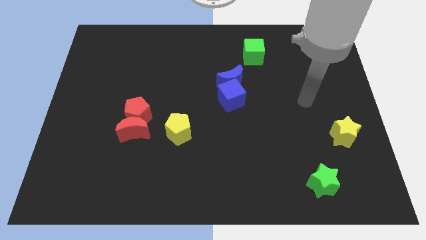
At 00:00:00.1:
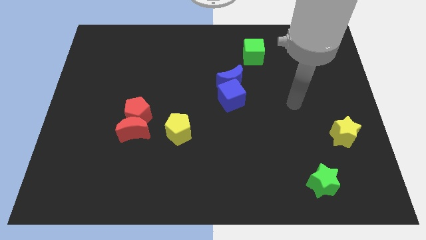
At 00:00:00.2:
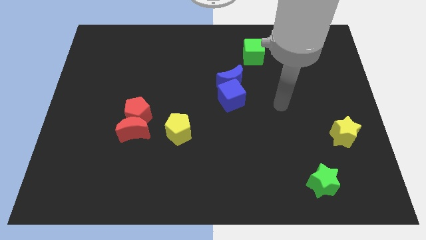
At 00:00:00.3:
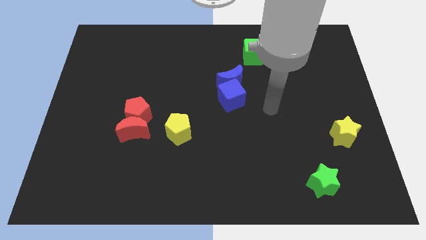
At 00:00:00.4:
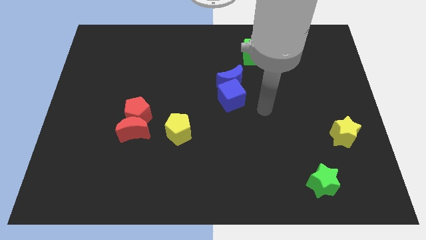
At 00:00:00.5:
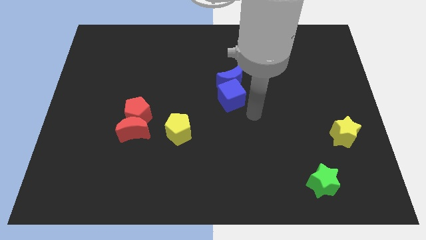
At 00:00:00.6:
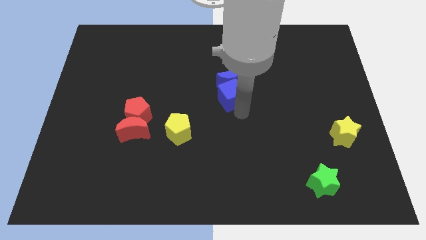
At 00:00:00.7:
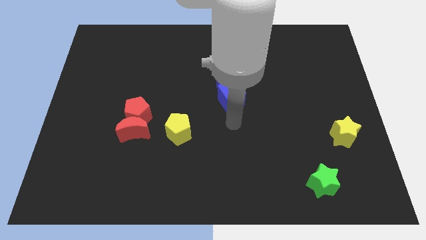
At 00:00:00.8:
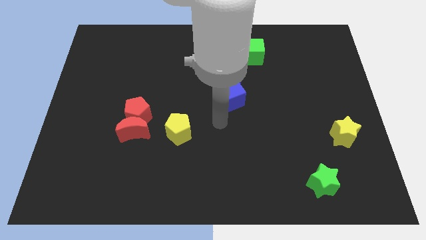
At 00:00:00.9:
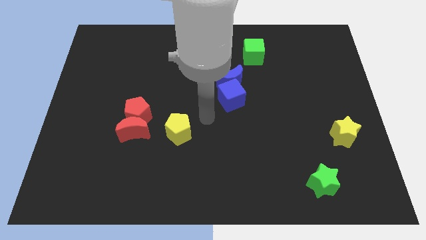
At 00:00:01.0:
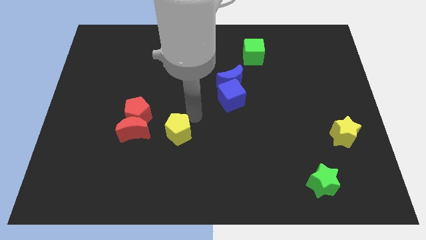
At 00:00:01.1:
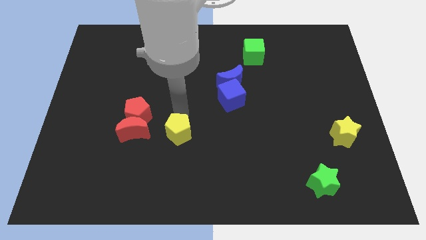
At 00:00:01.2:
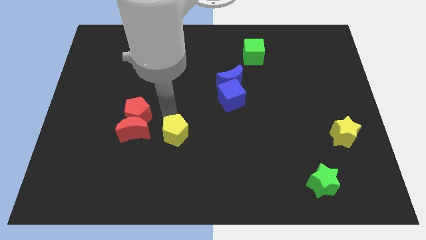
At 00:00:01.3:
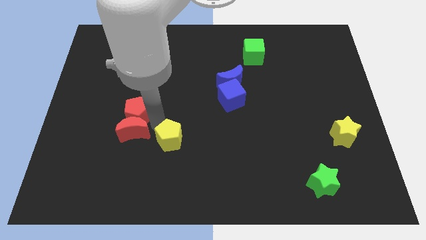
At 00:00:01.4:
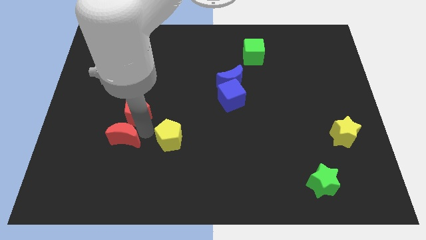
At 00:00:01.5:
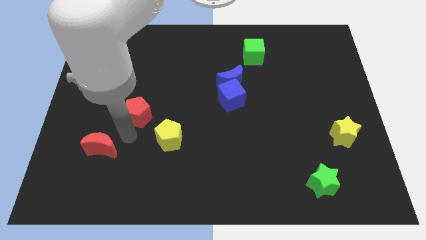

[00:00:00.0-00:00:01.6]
separate the red pentagon from the red moon

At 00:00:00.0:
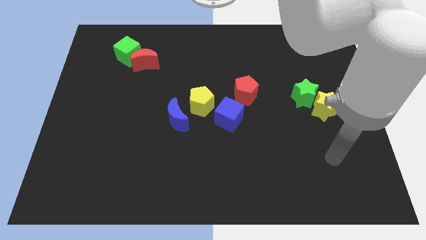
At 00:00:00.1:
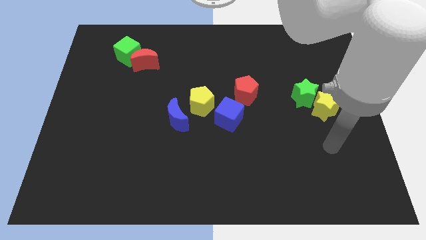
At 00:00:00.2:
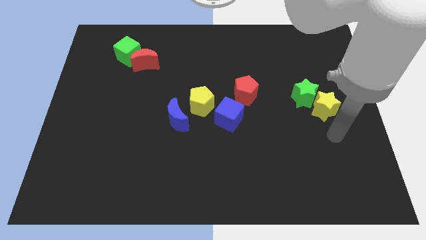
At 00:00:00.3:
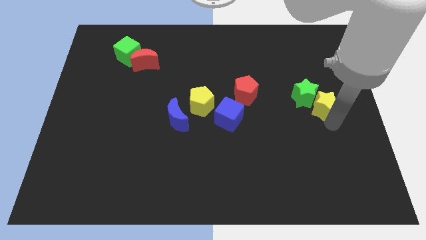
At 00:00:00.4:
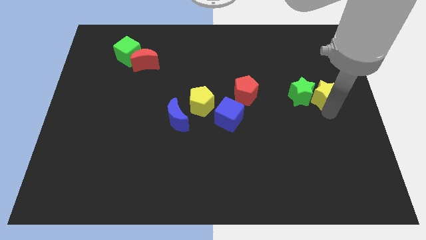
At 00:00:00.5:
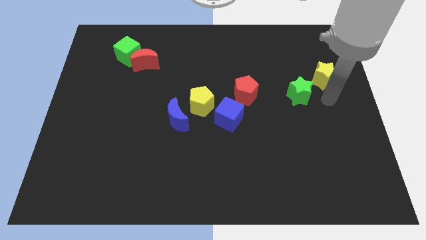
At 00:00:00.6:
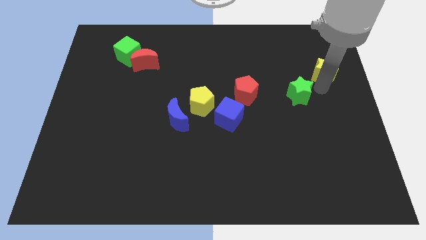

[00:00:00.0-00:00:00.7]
separate the green star from the yellow star

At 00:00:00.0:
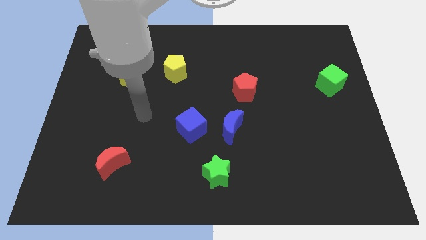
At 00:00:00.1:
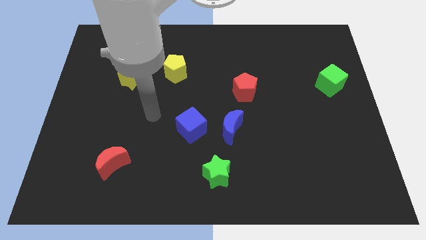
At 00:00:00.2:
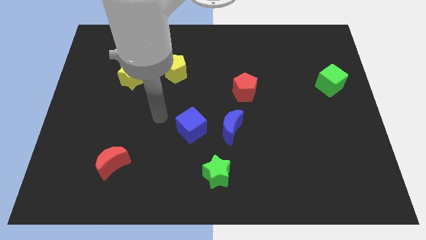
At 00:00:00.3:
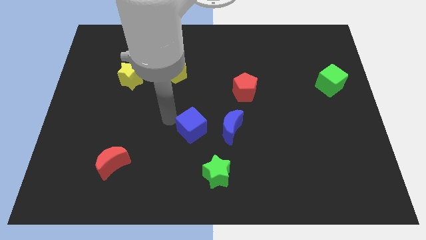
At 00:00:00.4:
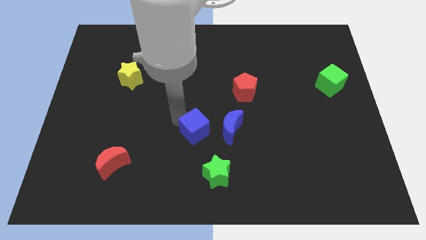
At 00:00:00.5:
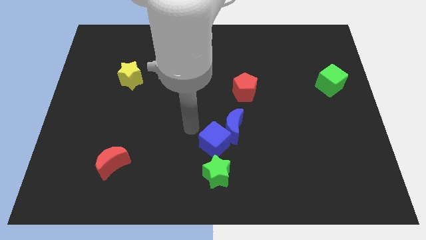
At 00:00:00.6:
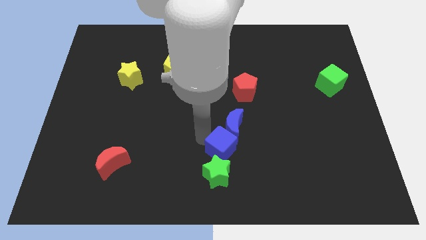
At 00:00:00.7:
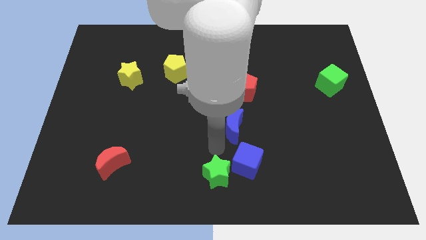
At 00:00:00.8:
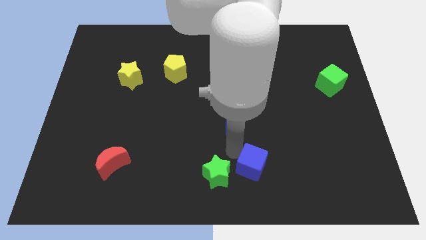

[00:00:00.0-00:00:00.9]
move the blue moon away from the blue cube

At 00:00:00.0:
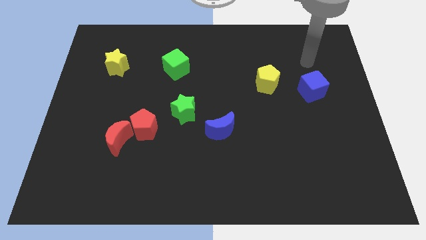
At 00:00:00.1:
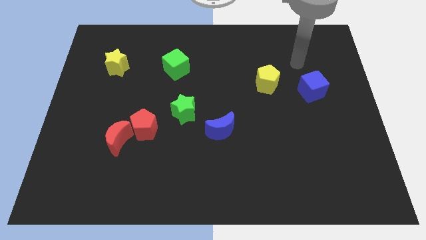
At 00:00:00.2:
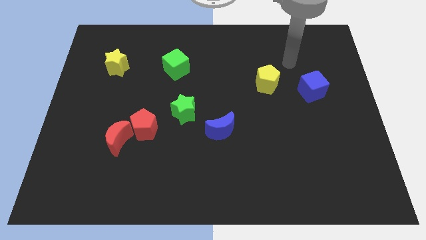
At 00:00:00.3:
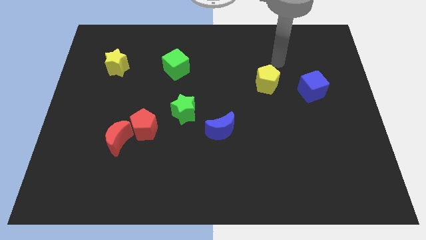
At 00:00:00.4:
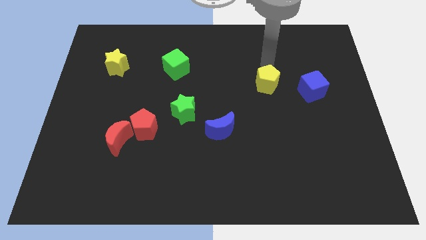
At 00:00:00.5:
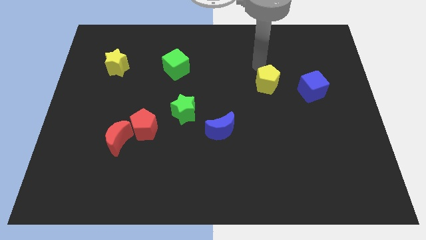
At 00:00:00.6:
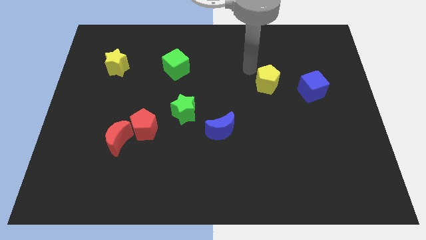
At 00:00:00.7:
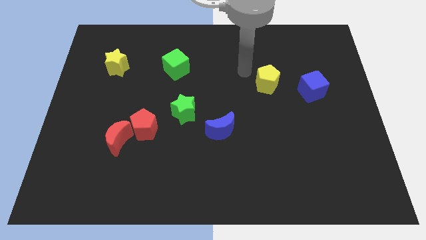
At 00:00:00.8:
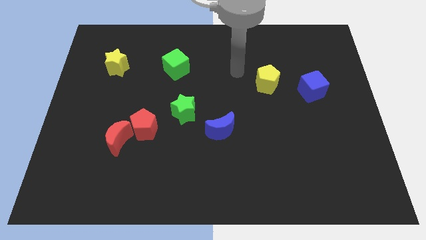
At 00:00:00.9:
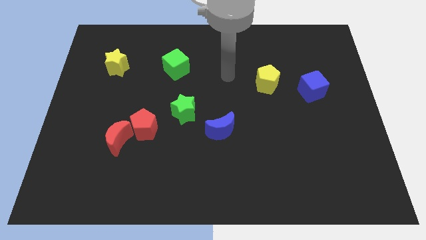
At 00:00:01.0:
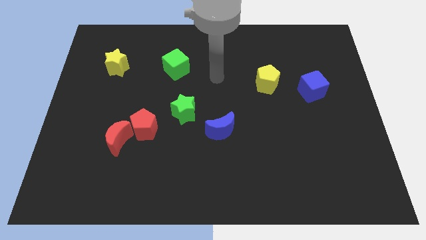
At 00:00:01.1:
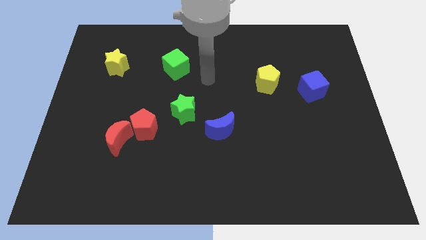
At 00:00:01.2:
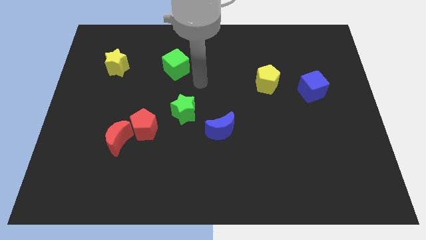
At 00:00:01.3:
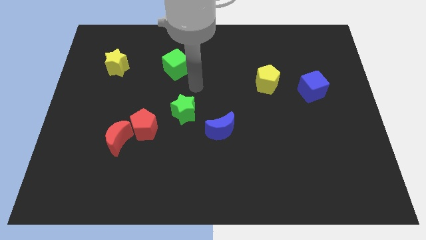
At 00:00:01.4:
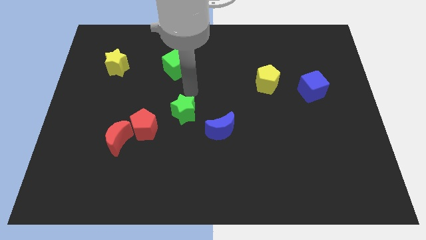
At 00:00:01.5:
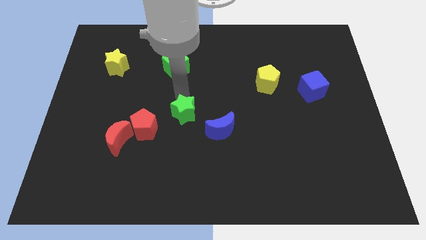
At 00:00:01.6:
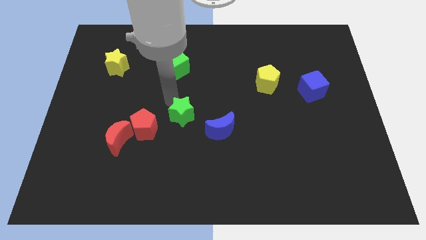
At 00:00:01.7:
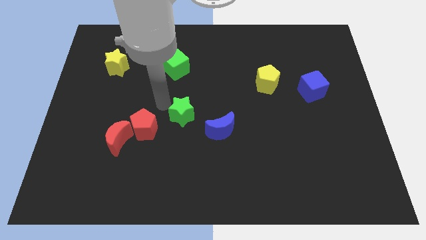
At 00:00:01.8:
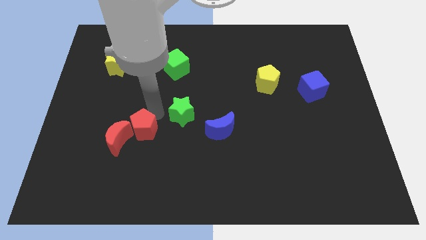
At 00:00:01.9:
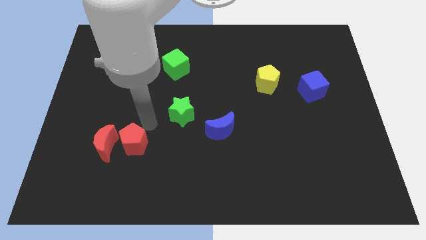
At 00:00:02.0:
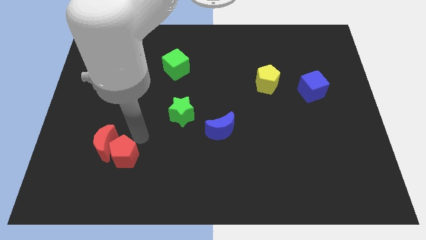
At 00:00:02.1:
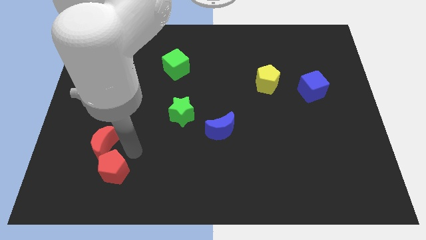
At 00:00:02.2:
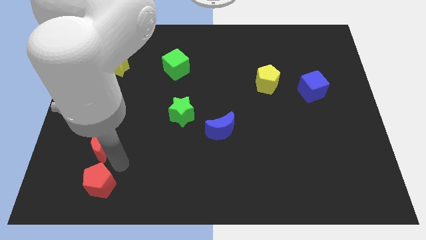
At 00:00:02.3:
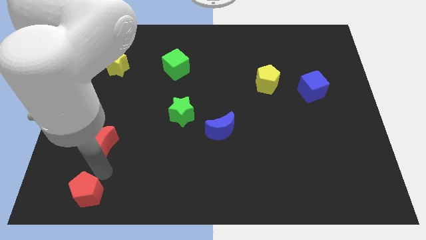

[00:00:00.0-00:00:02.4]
pull the red moon apart from the red pentagon

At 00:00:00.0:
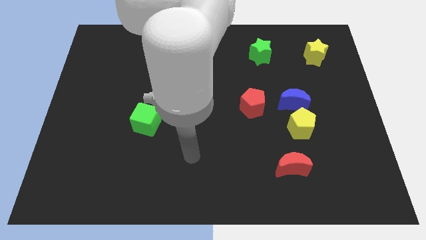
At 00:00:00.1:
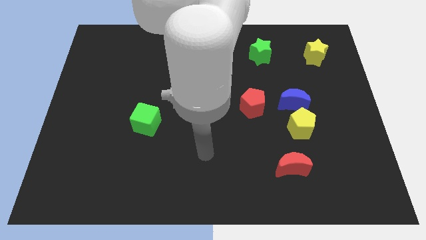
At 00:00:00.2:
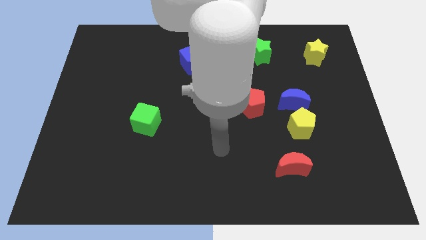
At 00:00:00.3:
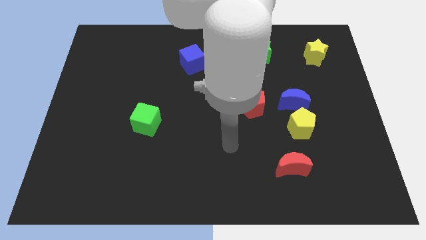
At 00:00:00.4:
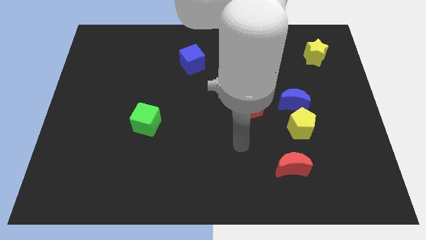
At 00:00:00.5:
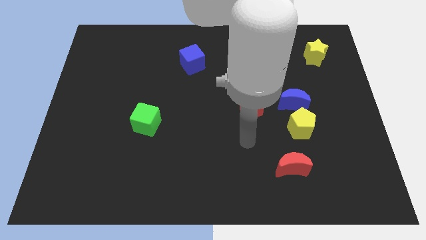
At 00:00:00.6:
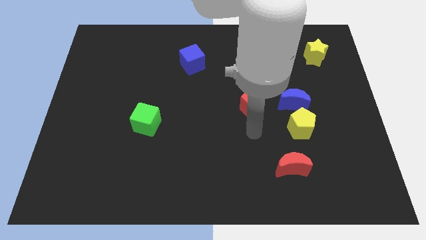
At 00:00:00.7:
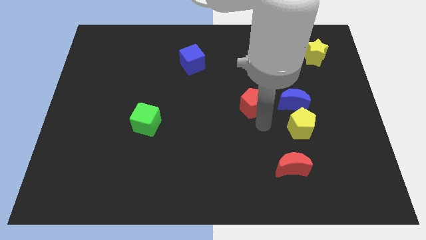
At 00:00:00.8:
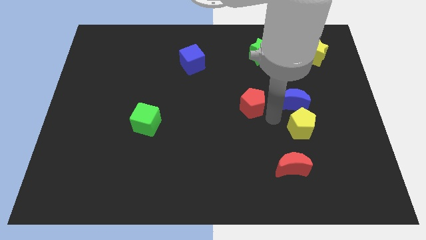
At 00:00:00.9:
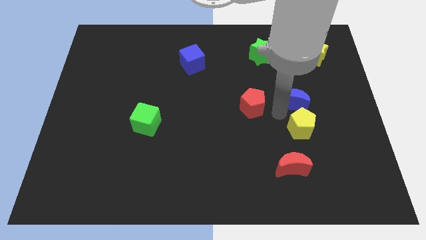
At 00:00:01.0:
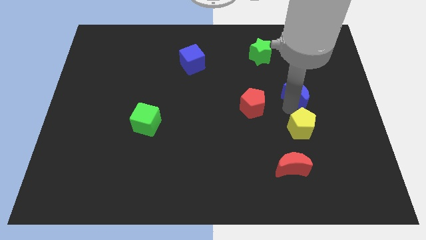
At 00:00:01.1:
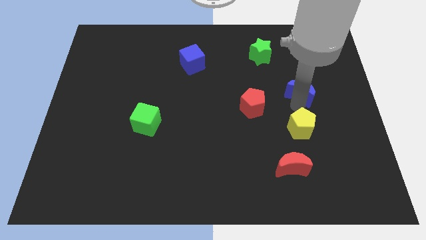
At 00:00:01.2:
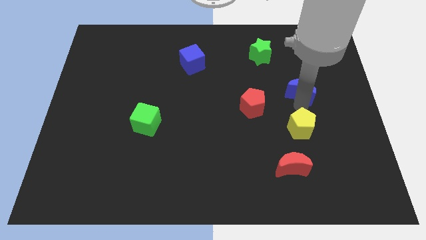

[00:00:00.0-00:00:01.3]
pull the yellow pentagon apart from the blue moon

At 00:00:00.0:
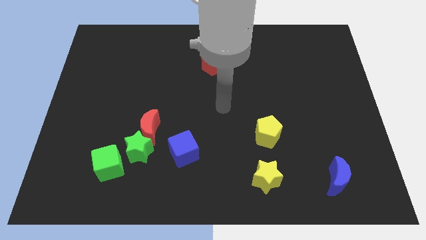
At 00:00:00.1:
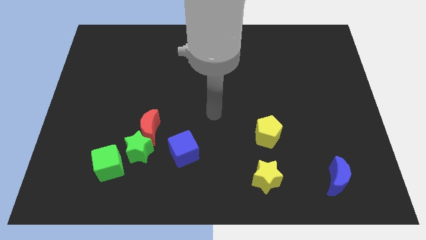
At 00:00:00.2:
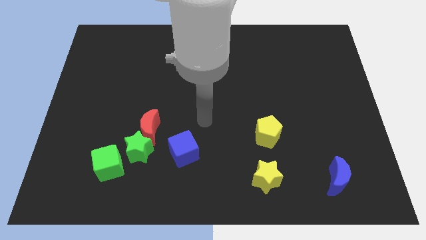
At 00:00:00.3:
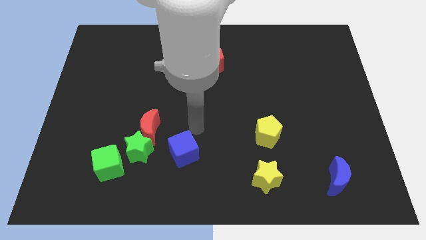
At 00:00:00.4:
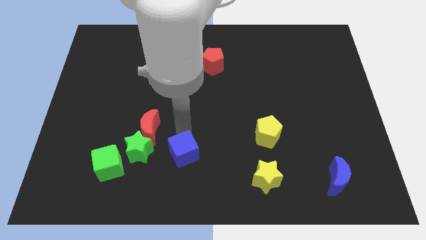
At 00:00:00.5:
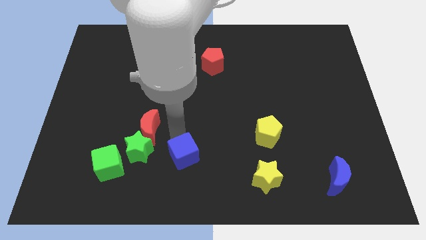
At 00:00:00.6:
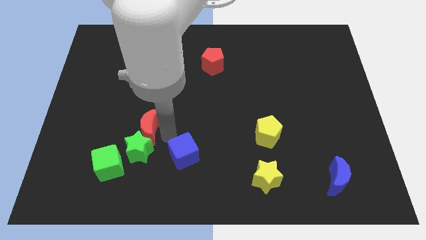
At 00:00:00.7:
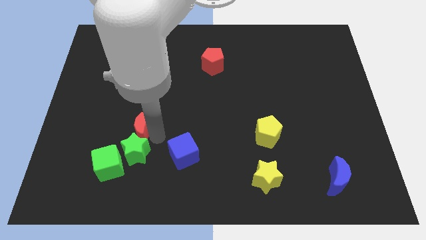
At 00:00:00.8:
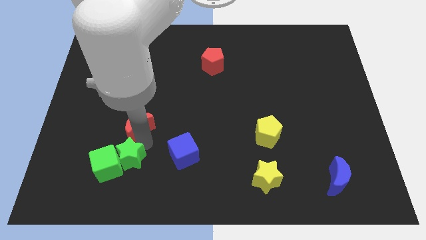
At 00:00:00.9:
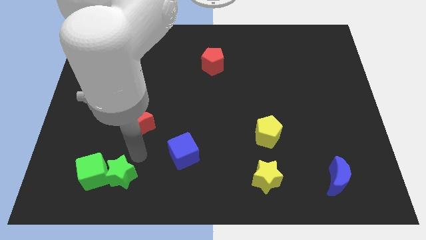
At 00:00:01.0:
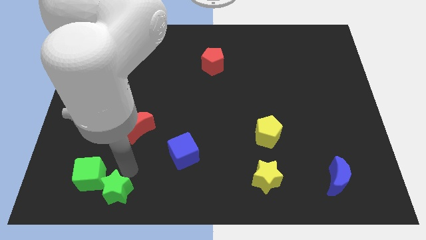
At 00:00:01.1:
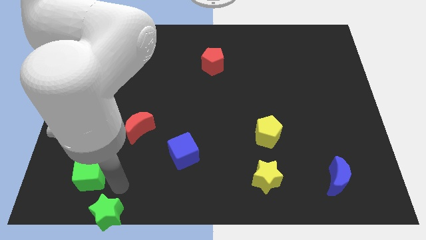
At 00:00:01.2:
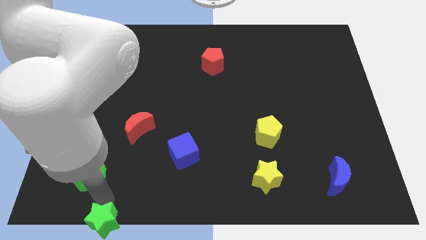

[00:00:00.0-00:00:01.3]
separate the green cube from the green star

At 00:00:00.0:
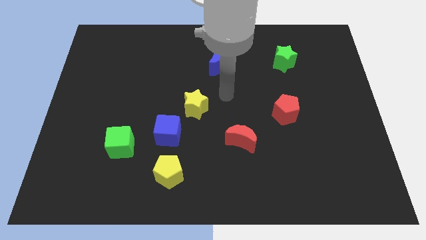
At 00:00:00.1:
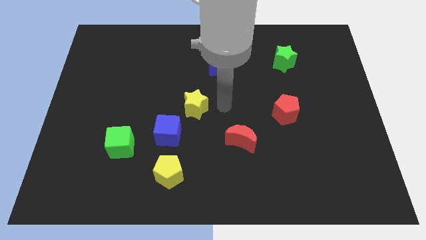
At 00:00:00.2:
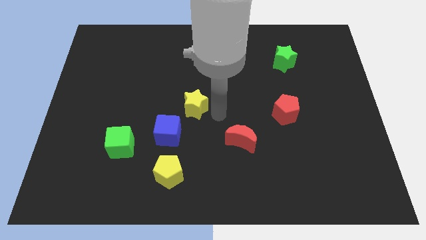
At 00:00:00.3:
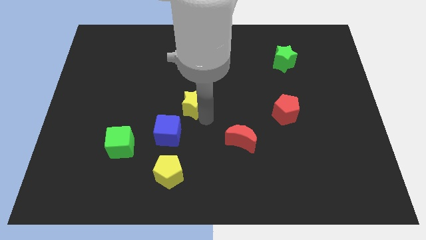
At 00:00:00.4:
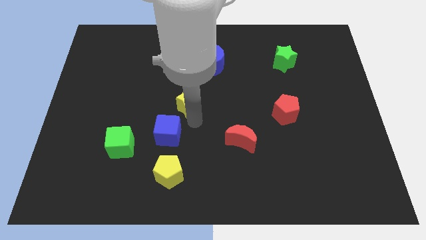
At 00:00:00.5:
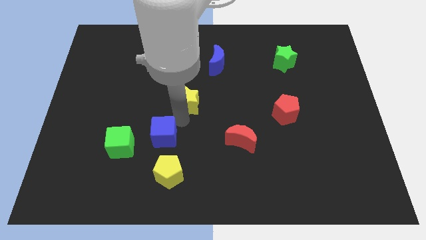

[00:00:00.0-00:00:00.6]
move the yellow star away from the blue cube

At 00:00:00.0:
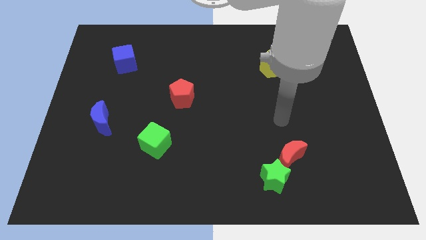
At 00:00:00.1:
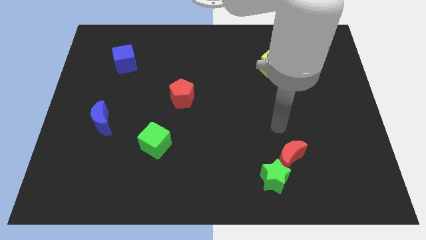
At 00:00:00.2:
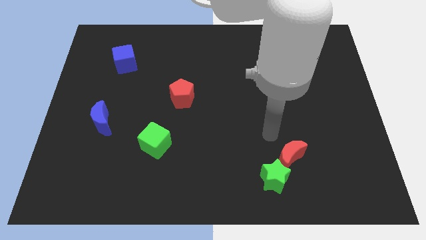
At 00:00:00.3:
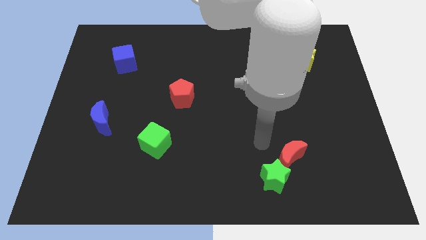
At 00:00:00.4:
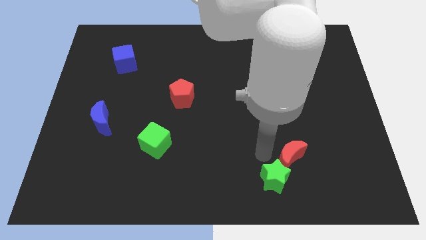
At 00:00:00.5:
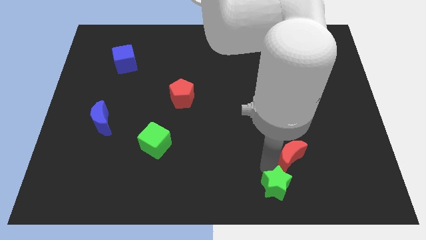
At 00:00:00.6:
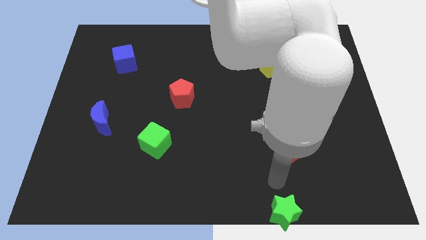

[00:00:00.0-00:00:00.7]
pull the red moon apart from the green star
